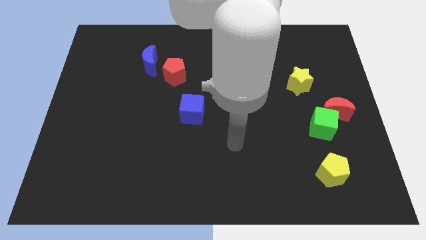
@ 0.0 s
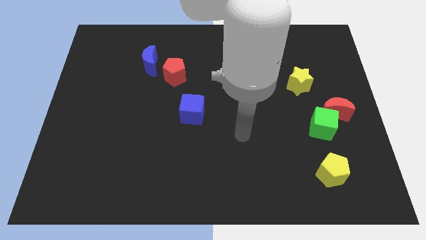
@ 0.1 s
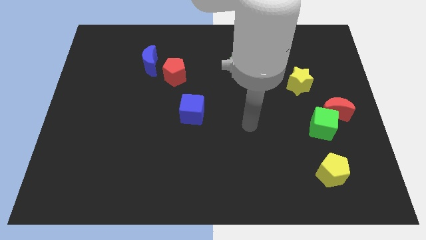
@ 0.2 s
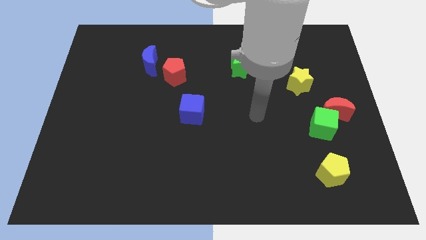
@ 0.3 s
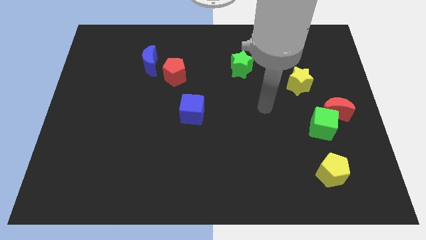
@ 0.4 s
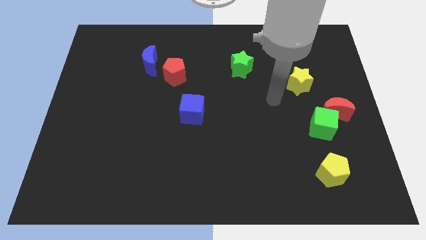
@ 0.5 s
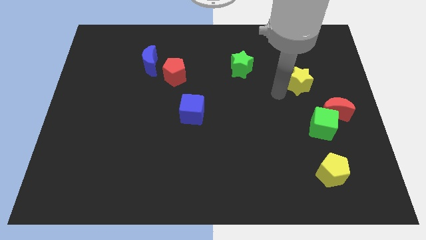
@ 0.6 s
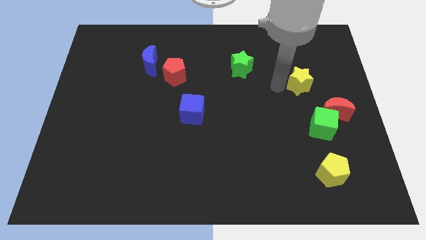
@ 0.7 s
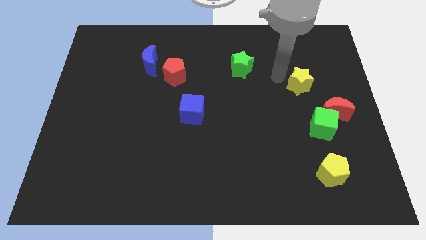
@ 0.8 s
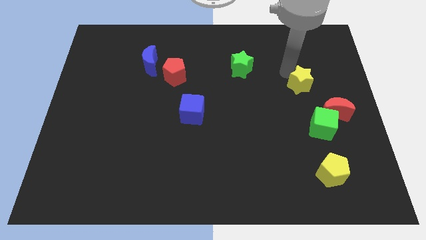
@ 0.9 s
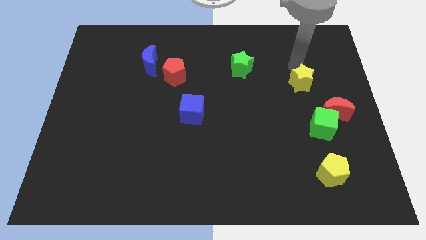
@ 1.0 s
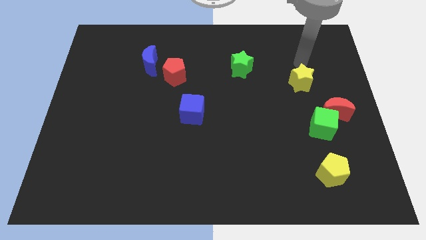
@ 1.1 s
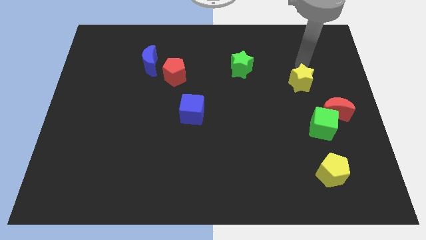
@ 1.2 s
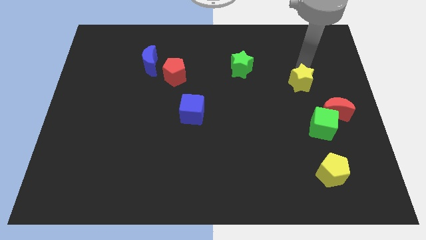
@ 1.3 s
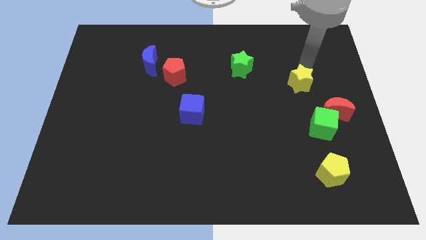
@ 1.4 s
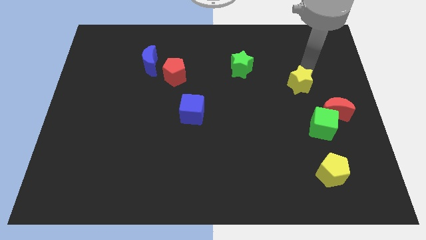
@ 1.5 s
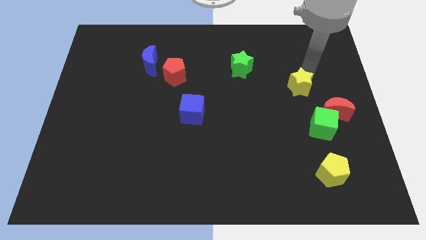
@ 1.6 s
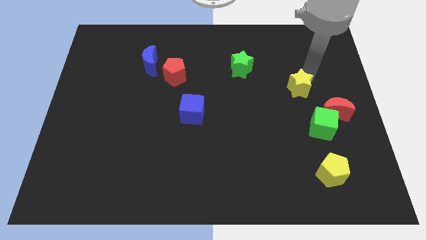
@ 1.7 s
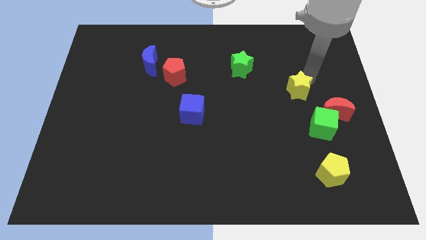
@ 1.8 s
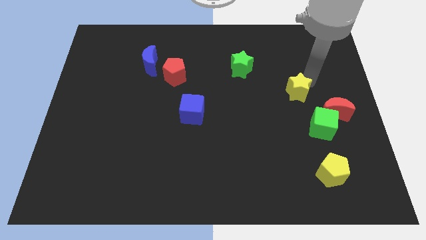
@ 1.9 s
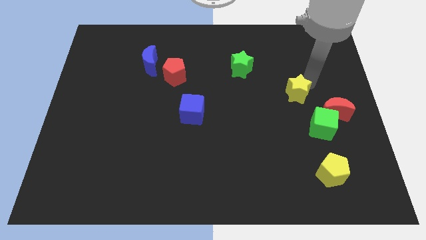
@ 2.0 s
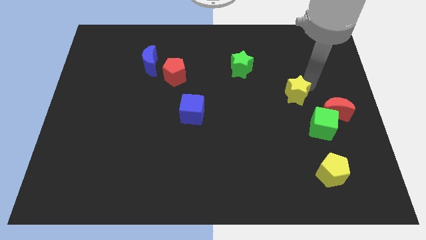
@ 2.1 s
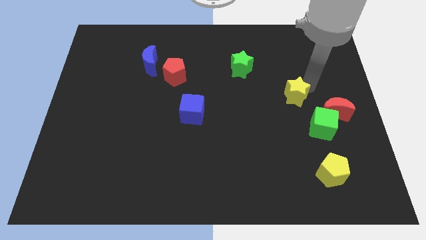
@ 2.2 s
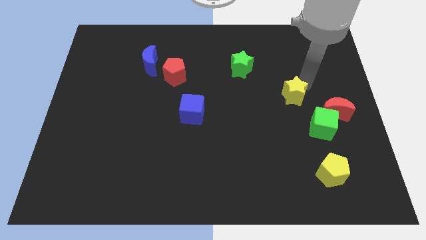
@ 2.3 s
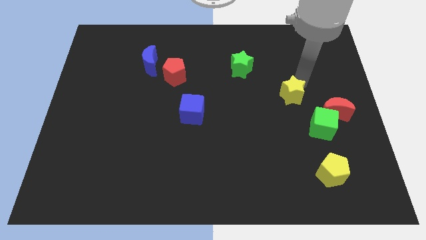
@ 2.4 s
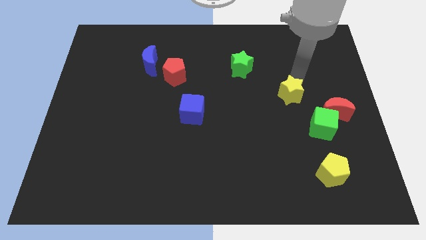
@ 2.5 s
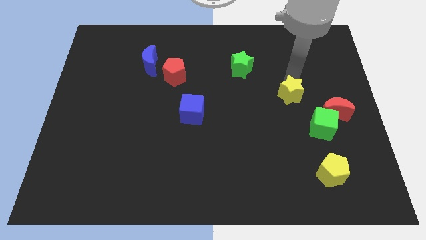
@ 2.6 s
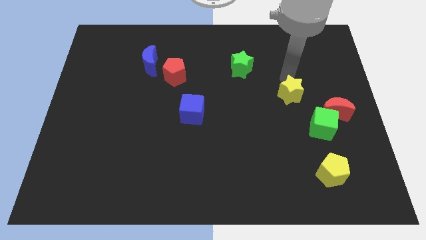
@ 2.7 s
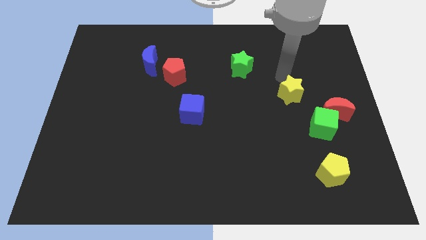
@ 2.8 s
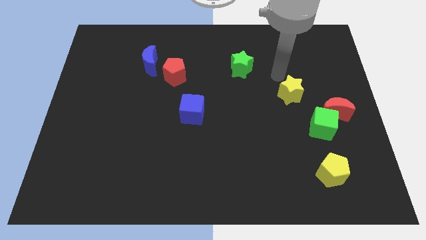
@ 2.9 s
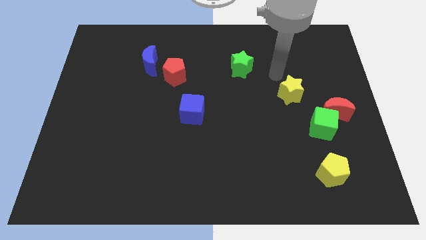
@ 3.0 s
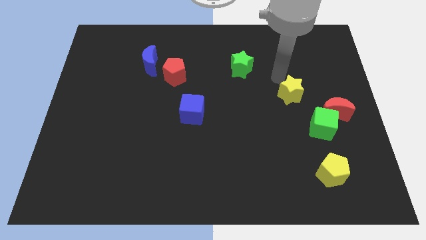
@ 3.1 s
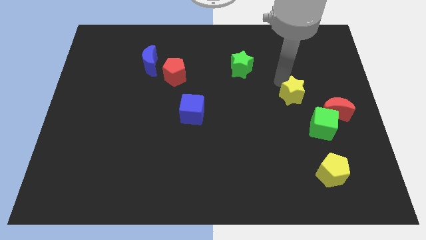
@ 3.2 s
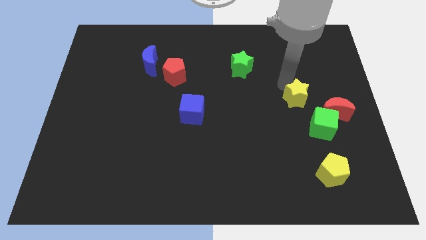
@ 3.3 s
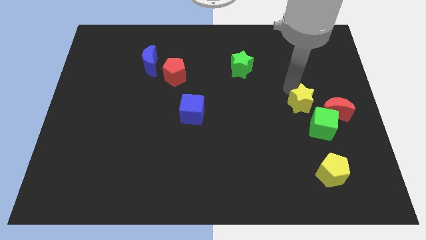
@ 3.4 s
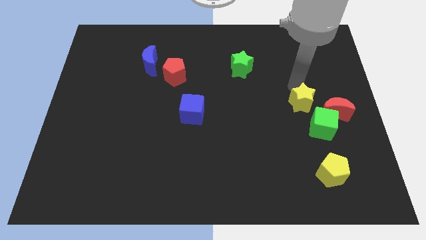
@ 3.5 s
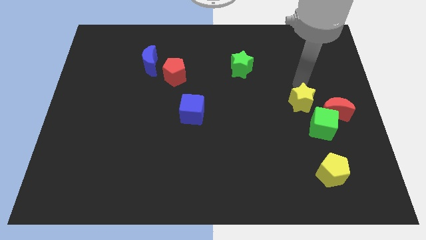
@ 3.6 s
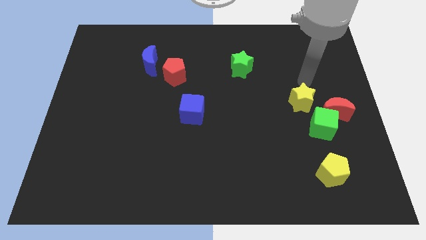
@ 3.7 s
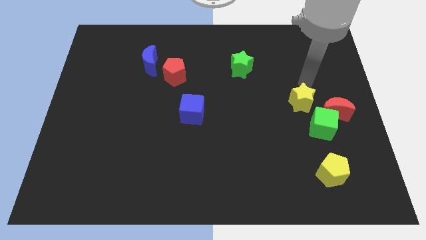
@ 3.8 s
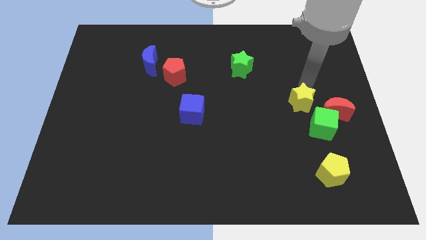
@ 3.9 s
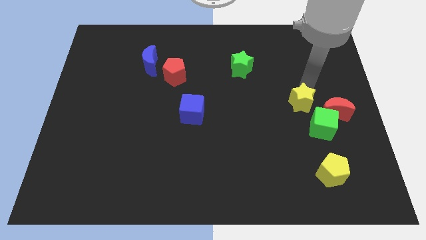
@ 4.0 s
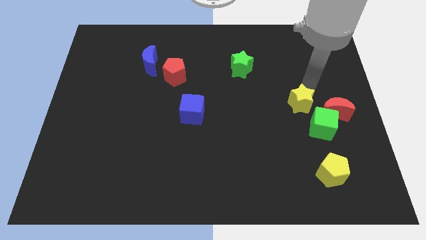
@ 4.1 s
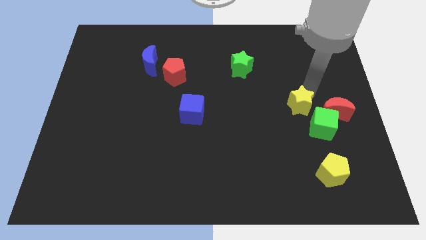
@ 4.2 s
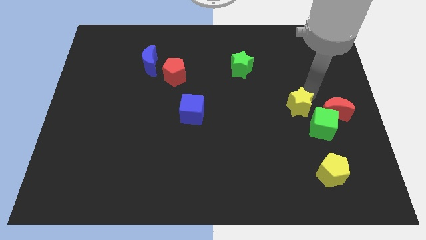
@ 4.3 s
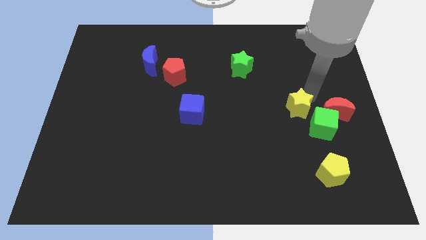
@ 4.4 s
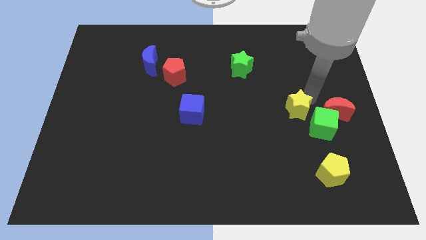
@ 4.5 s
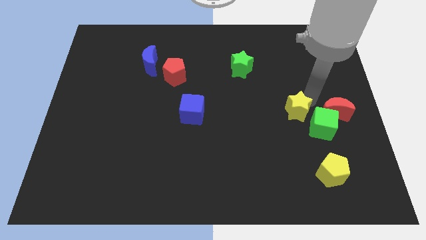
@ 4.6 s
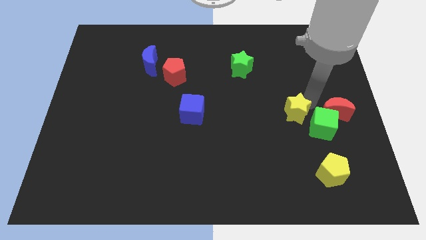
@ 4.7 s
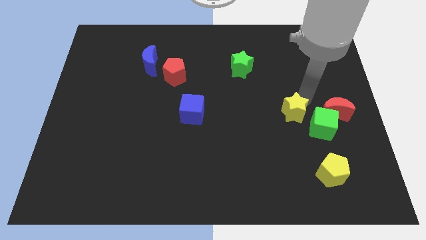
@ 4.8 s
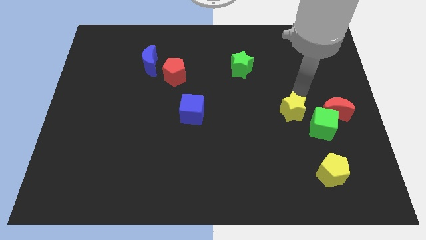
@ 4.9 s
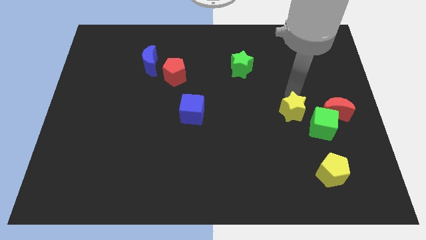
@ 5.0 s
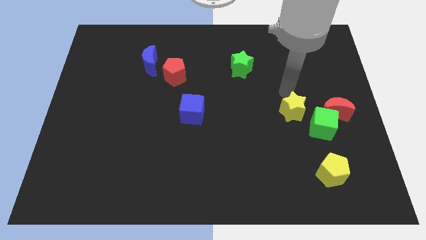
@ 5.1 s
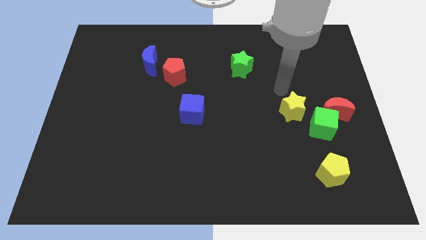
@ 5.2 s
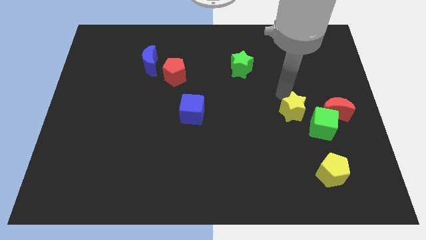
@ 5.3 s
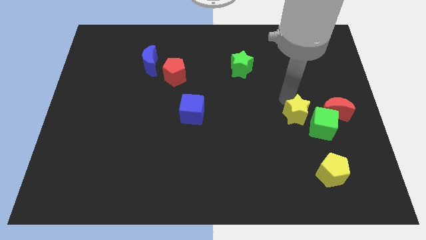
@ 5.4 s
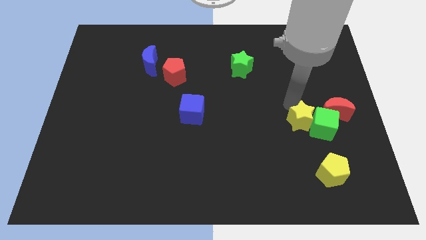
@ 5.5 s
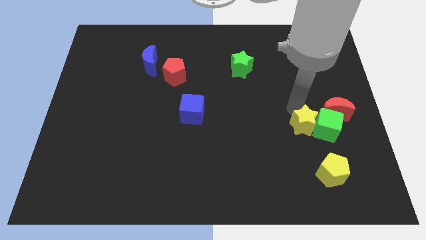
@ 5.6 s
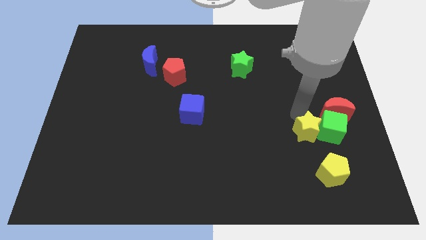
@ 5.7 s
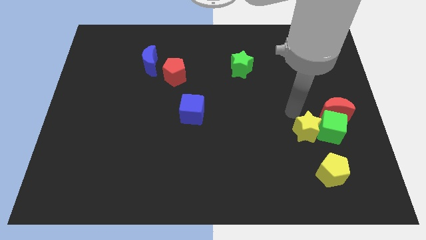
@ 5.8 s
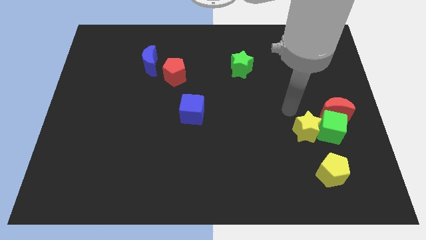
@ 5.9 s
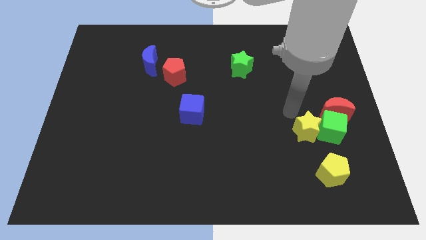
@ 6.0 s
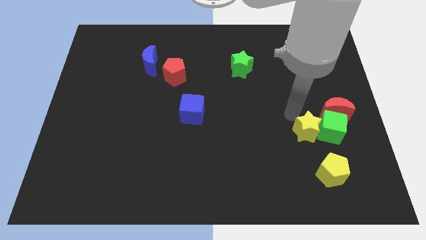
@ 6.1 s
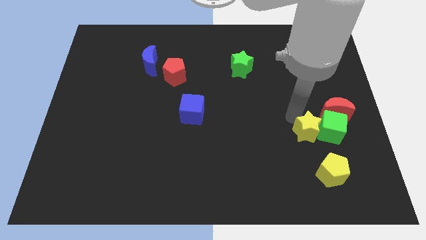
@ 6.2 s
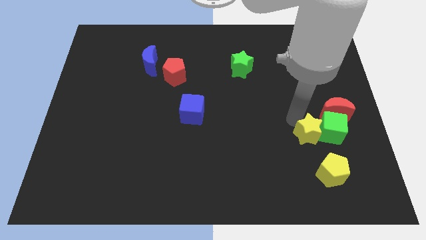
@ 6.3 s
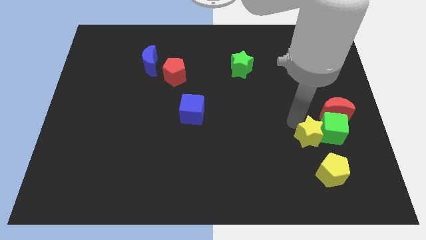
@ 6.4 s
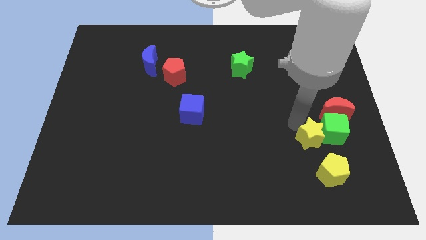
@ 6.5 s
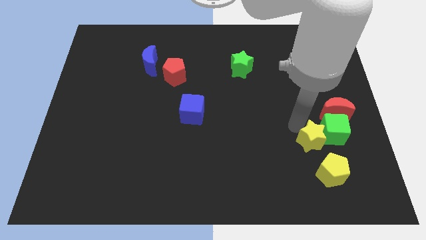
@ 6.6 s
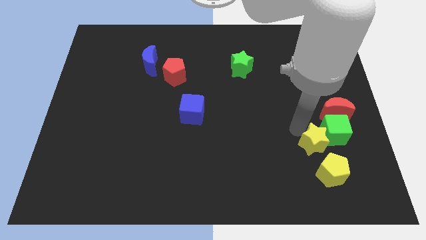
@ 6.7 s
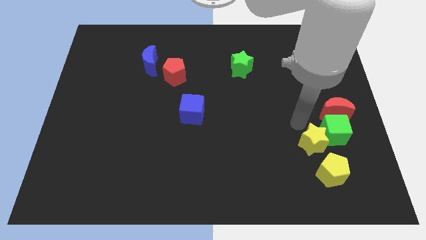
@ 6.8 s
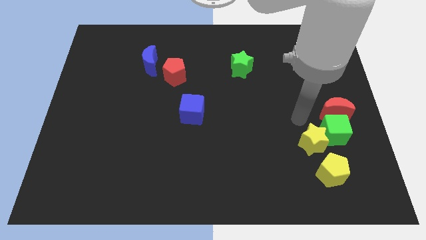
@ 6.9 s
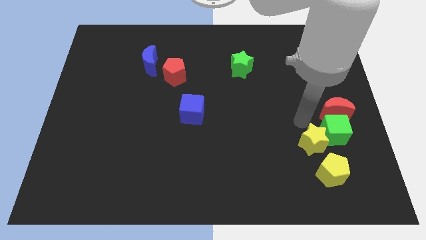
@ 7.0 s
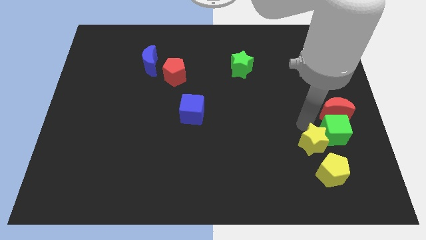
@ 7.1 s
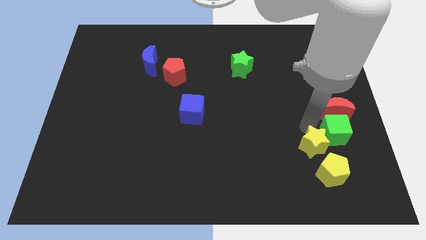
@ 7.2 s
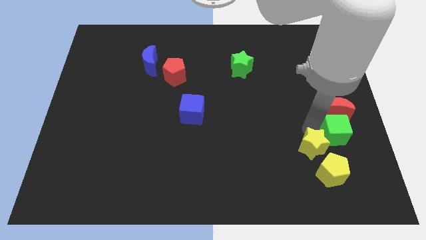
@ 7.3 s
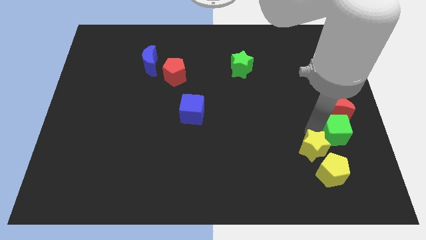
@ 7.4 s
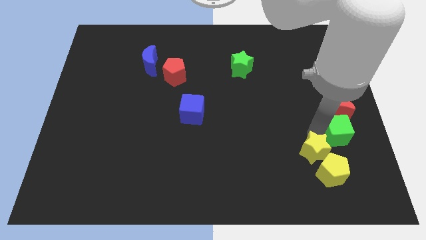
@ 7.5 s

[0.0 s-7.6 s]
put the yellow star next to the yellow pentagon

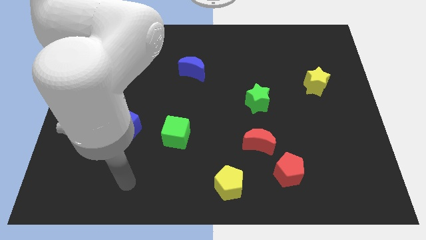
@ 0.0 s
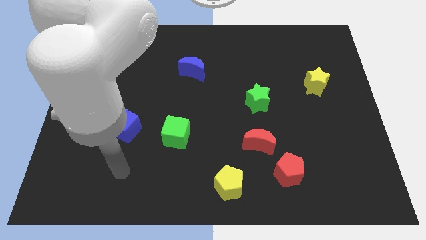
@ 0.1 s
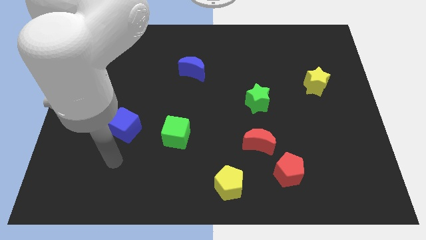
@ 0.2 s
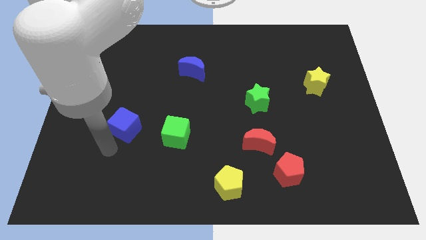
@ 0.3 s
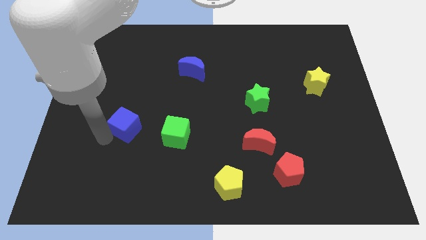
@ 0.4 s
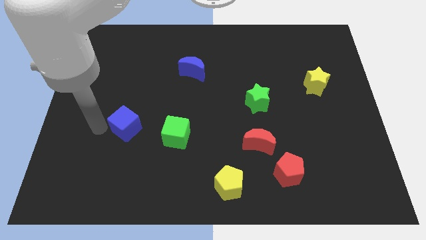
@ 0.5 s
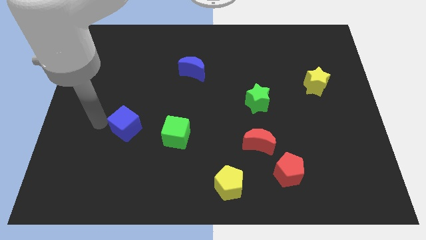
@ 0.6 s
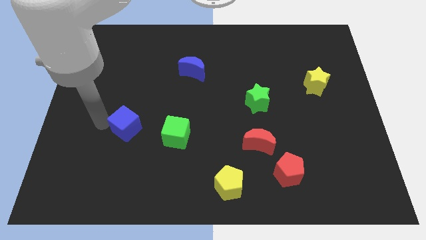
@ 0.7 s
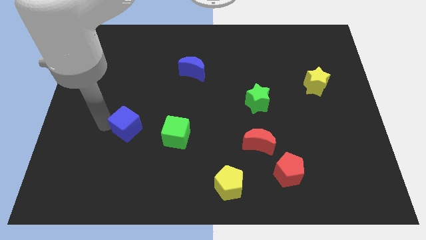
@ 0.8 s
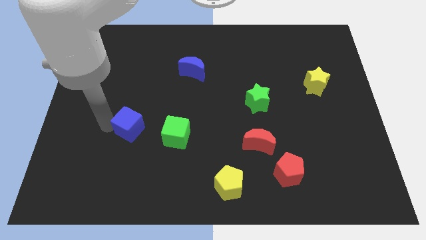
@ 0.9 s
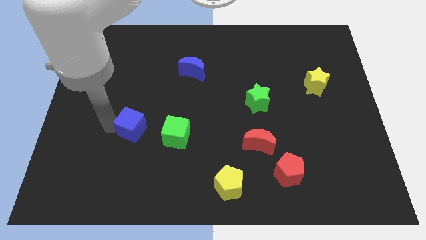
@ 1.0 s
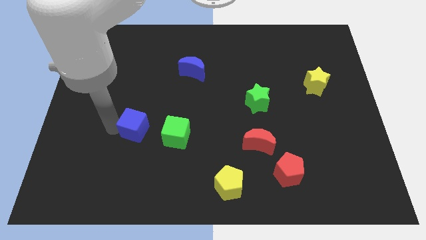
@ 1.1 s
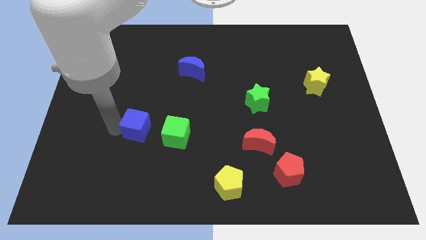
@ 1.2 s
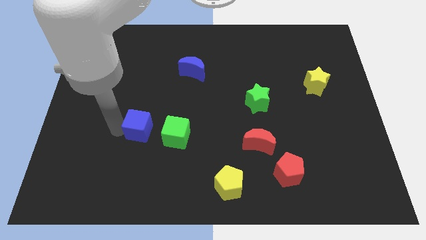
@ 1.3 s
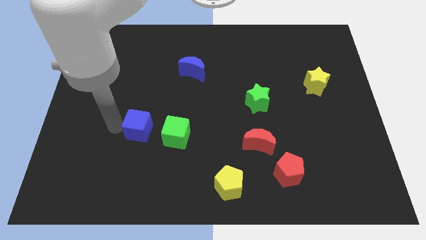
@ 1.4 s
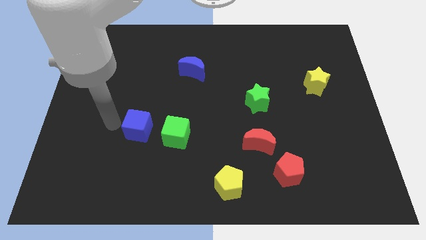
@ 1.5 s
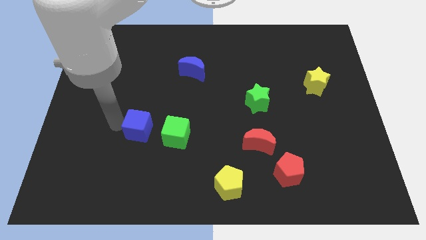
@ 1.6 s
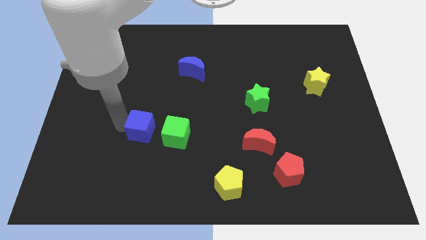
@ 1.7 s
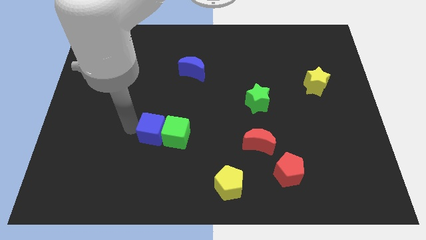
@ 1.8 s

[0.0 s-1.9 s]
move the blue cube close to the green cube
